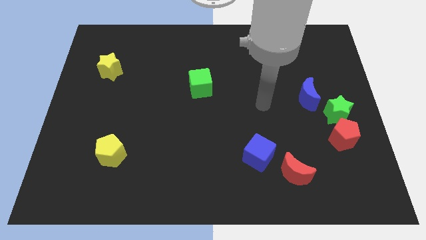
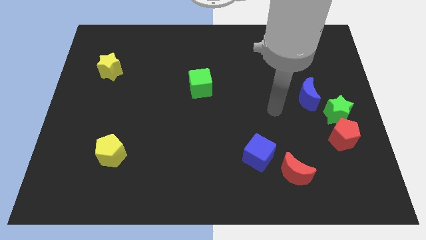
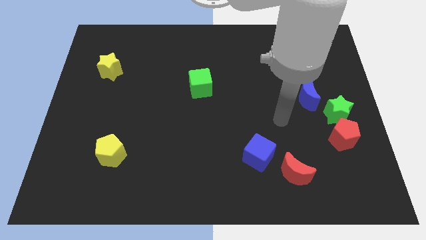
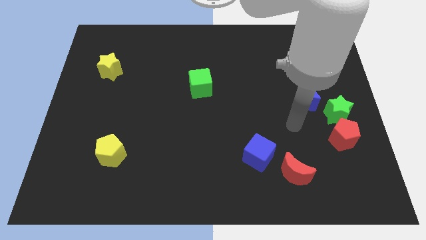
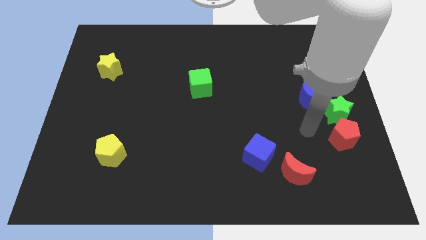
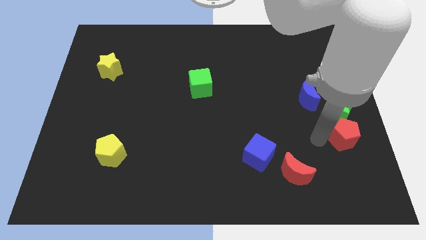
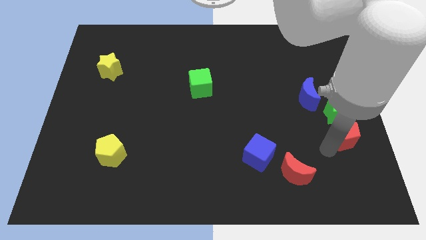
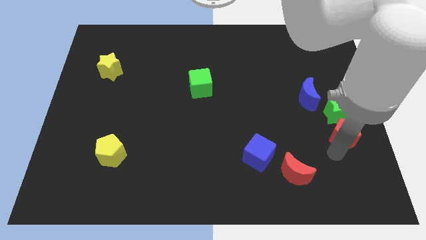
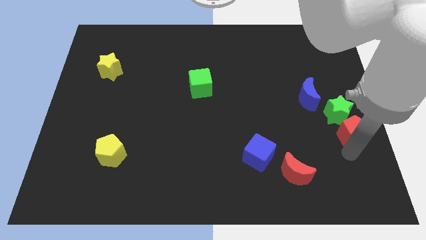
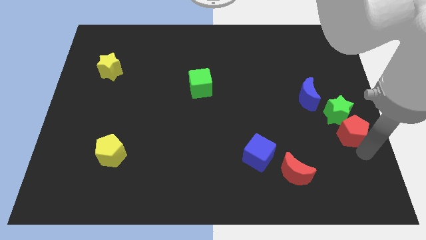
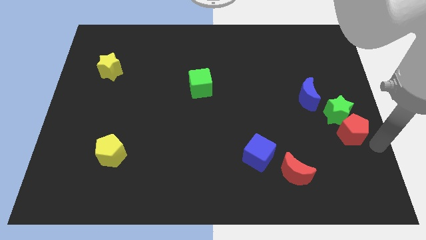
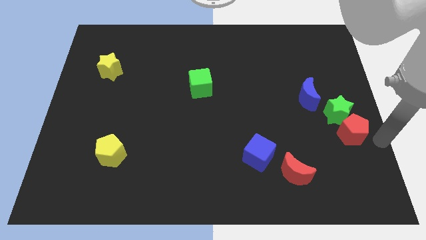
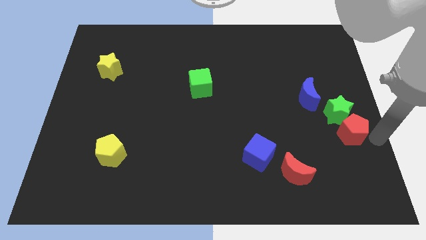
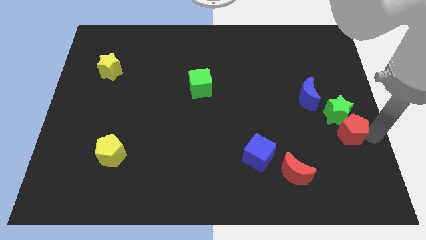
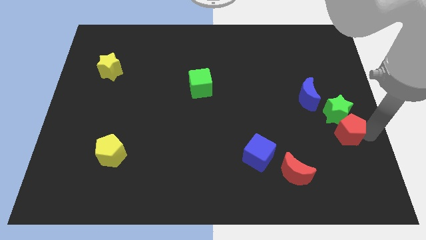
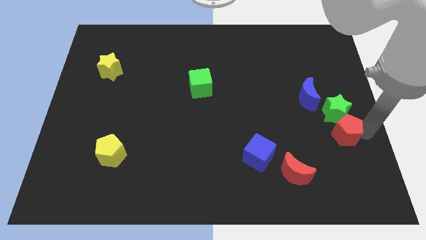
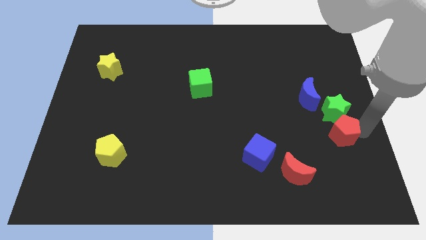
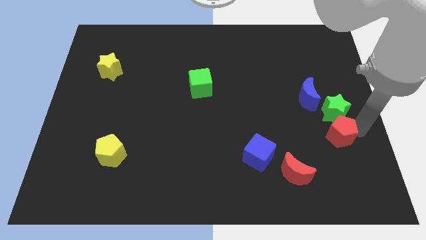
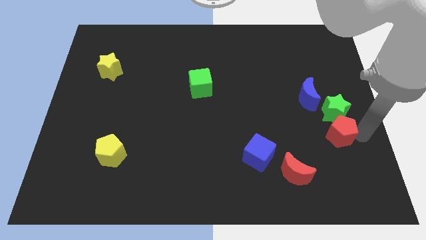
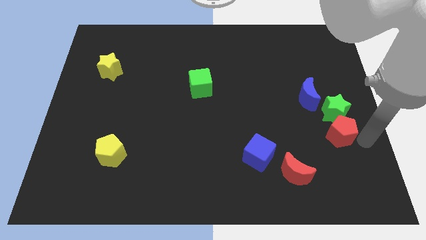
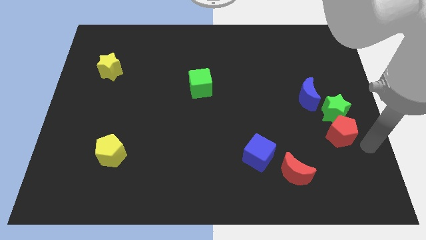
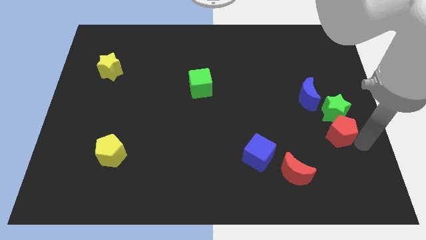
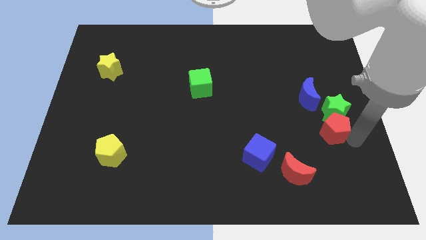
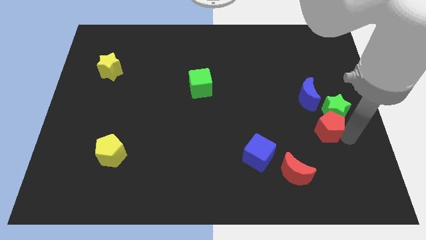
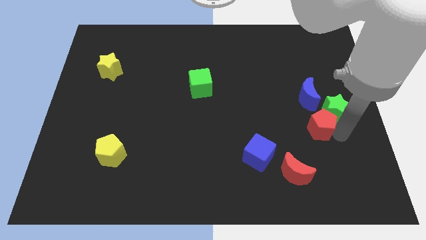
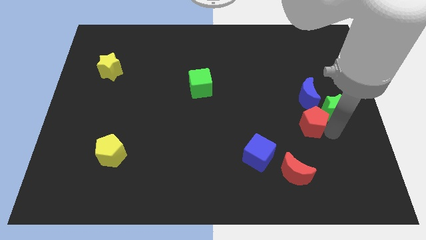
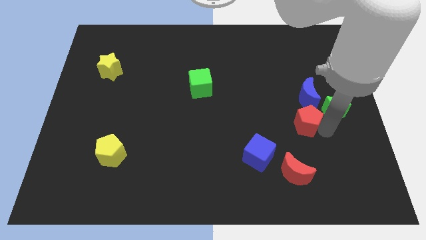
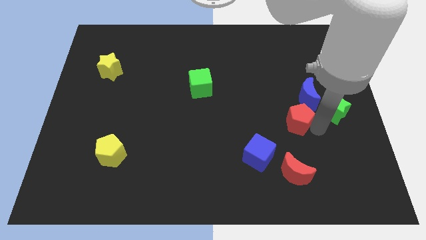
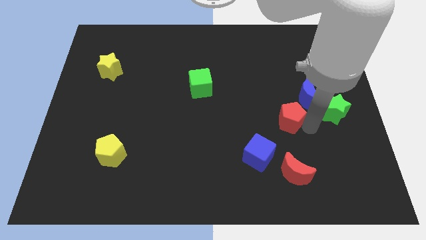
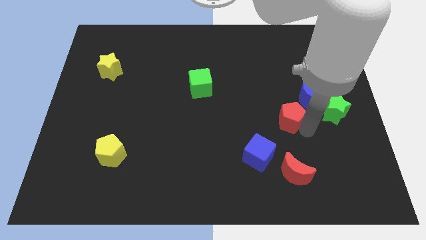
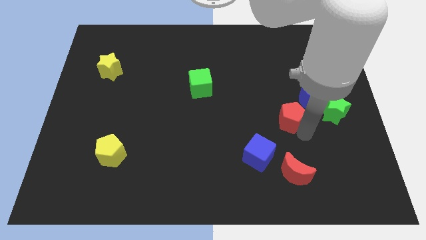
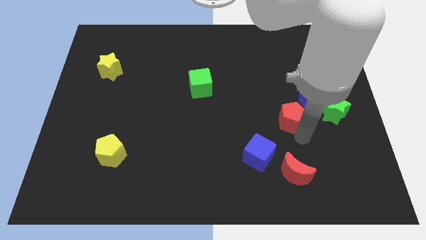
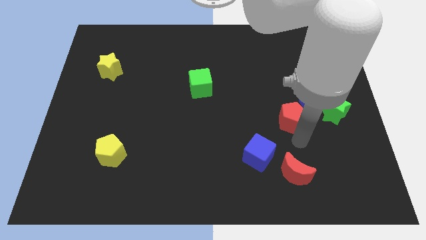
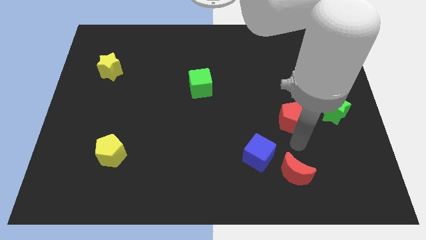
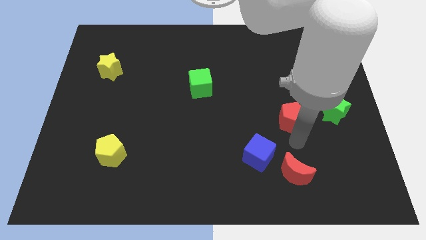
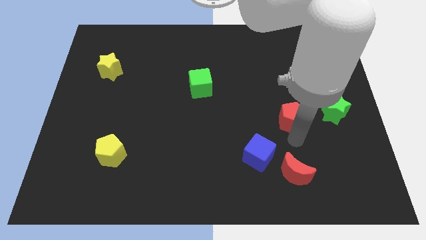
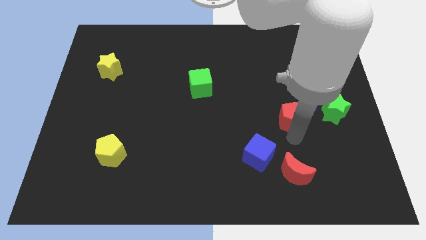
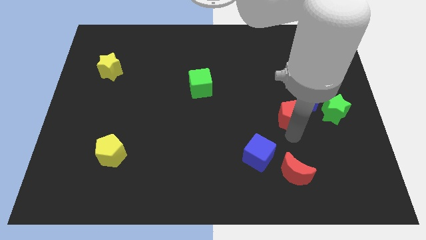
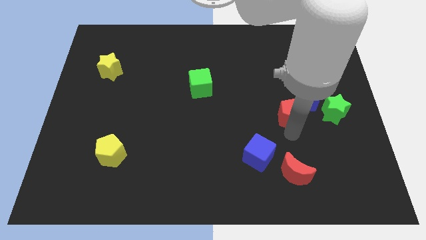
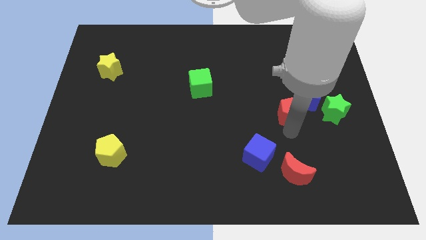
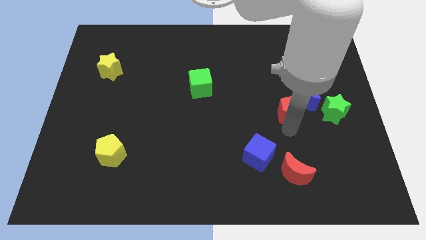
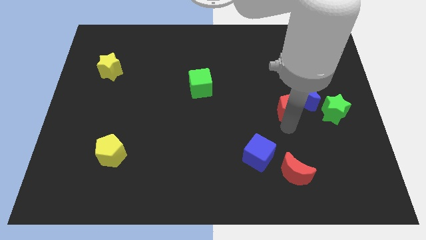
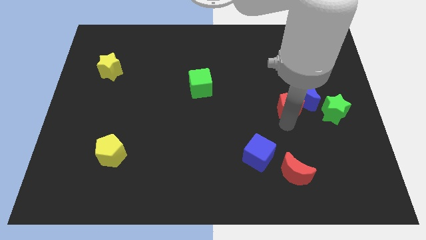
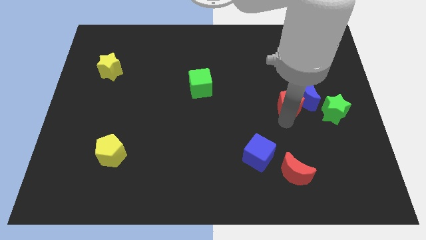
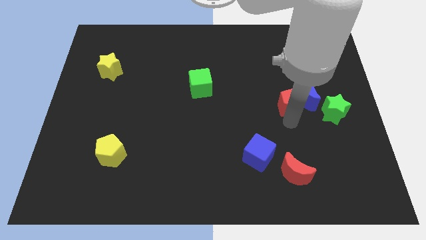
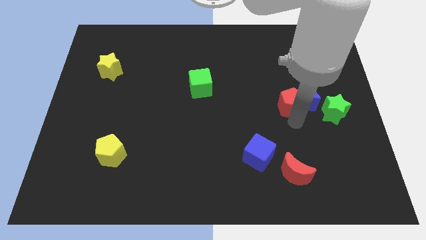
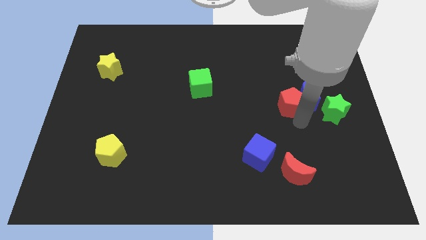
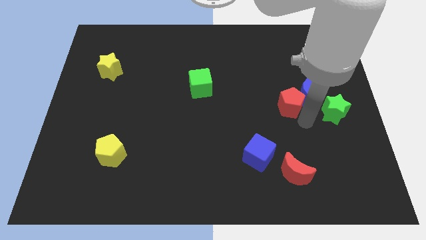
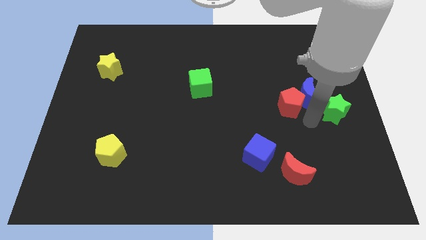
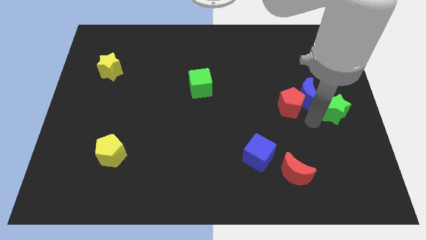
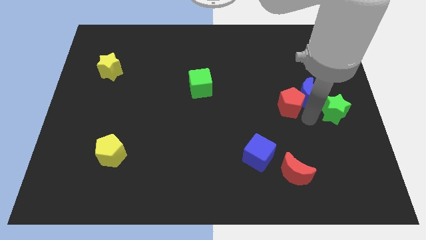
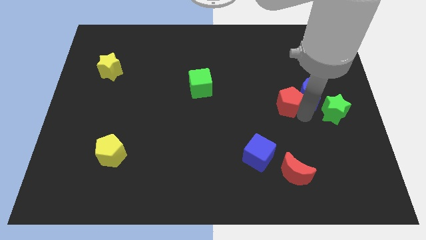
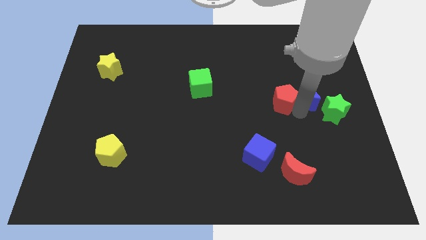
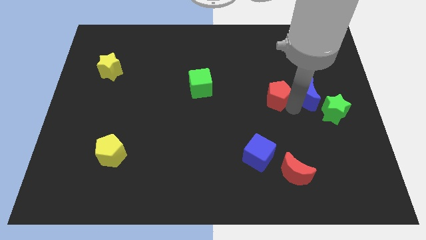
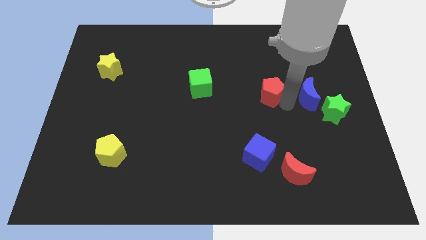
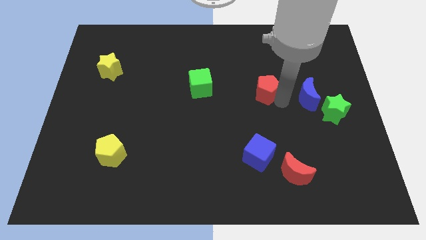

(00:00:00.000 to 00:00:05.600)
push the red pentagon up and to the left diagonally

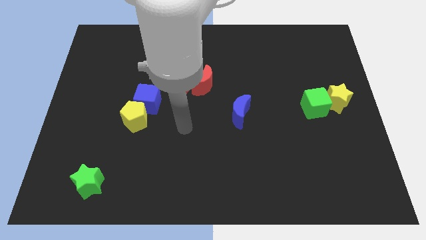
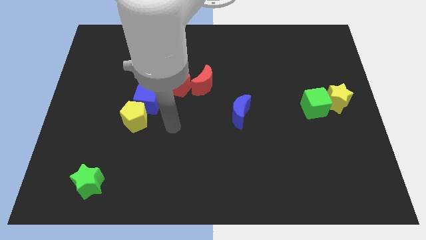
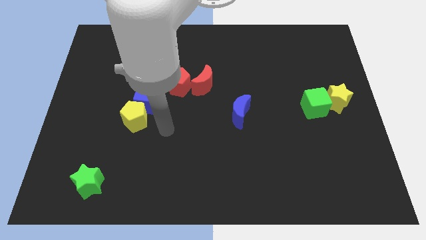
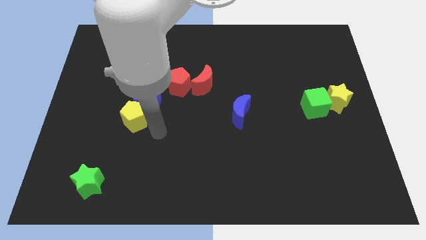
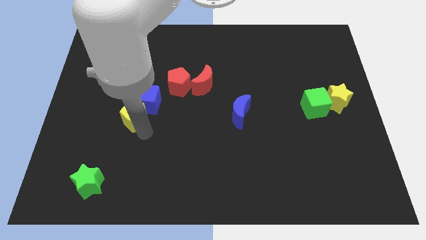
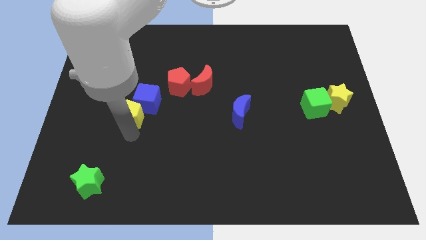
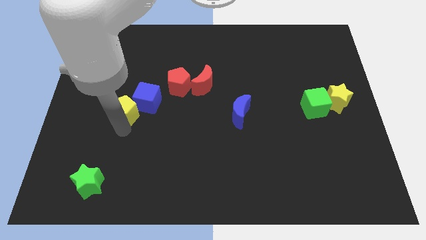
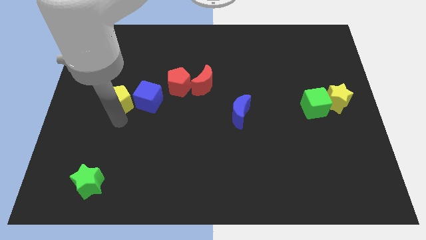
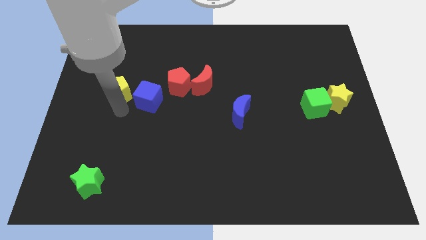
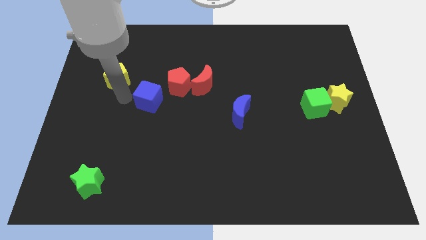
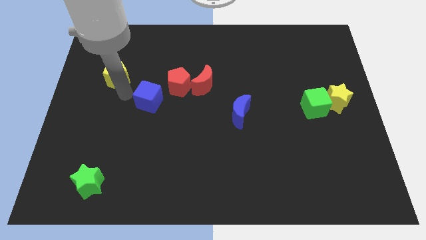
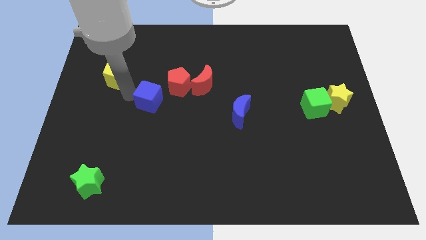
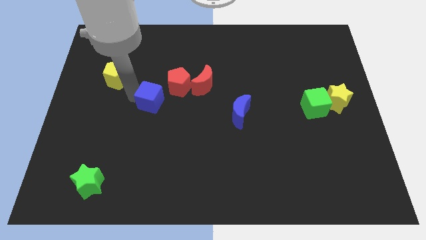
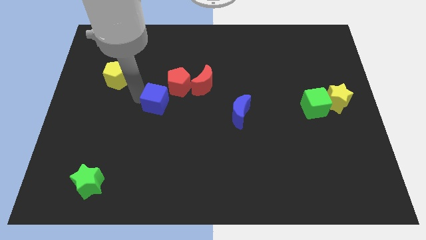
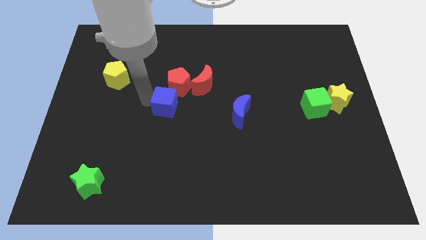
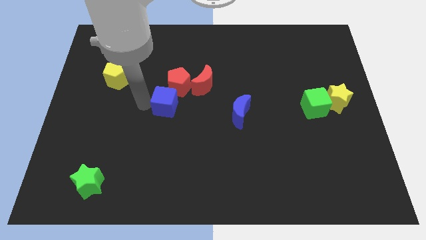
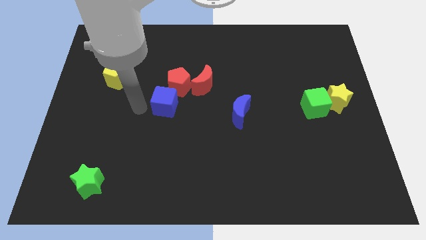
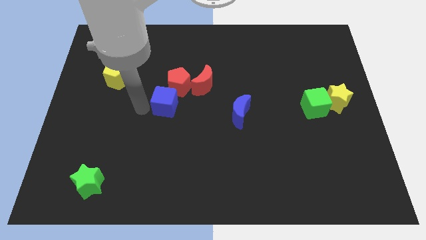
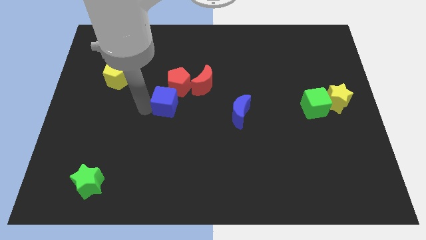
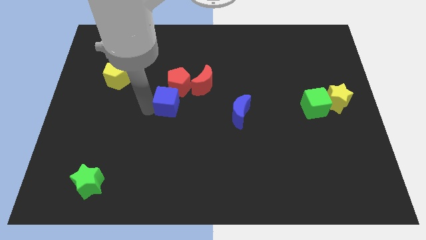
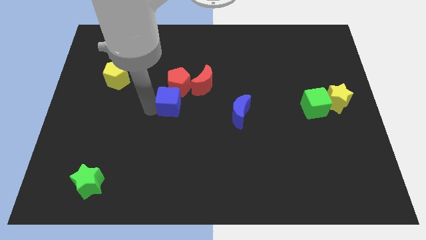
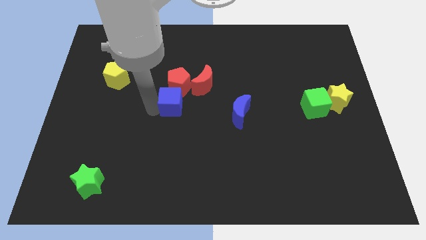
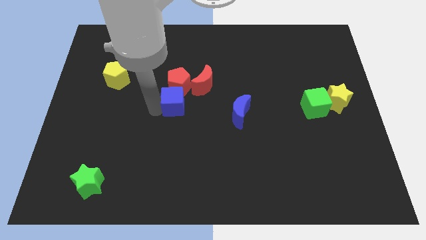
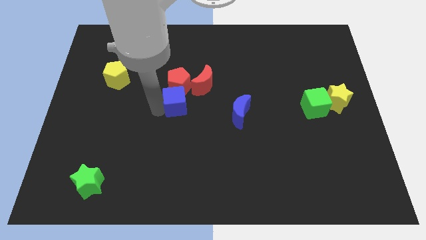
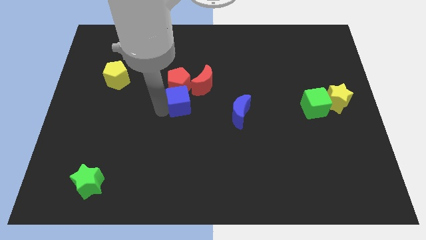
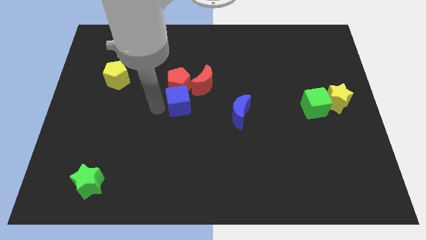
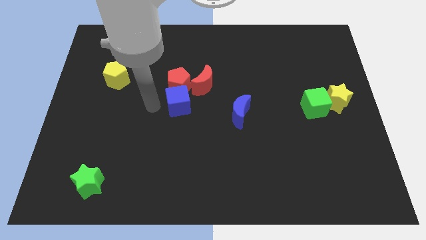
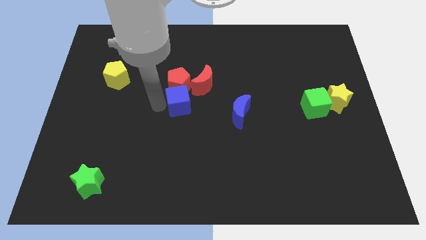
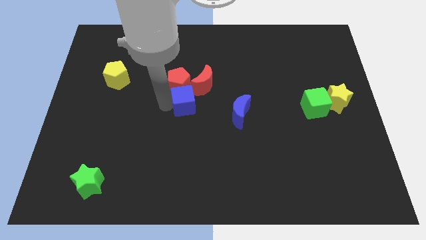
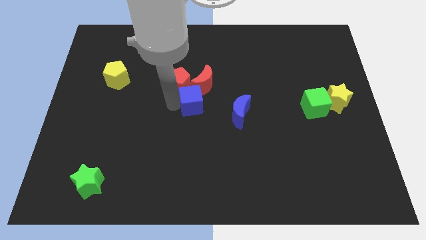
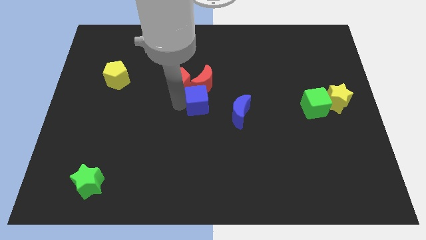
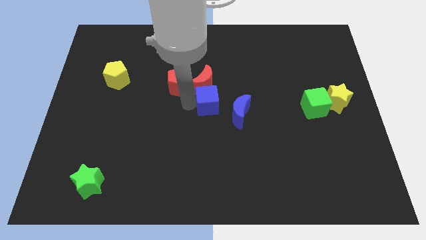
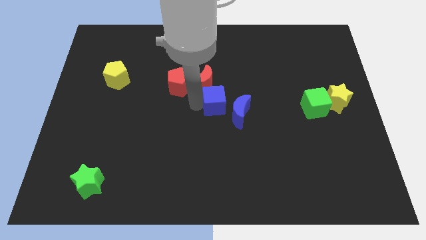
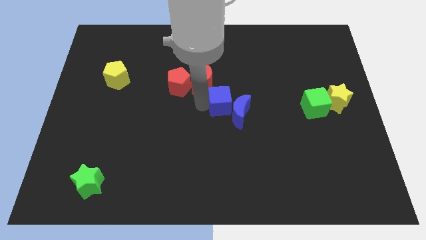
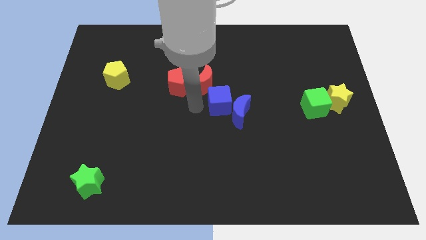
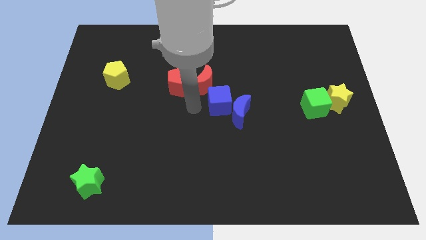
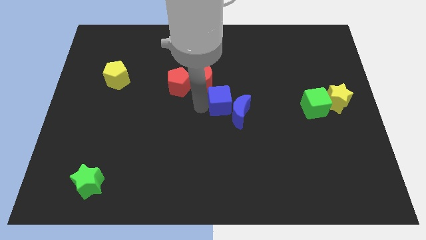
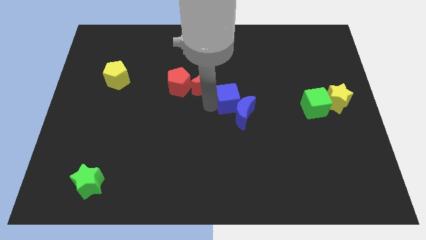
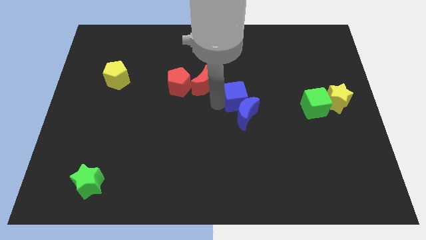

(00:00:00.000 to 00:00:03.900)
move the blue cube to the right
